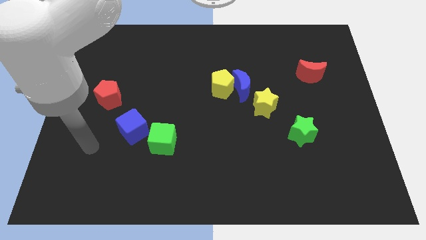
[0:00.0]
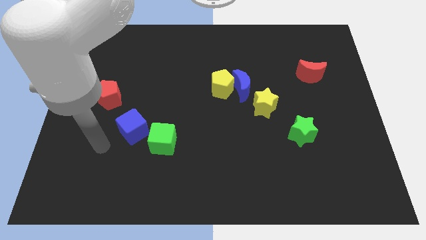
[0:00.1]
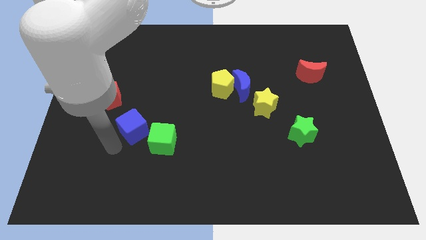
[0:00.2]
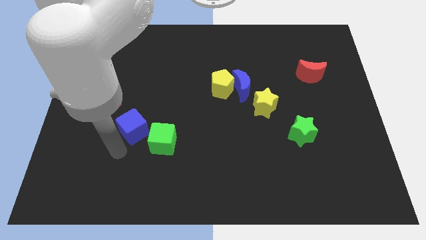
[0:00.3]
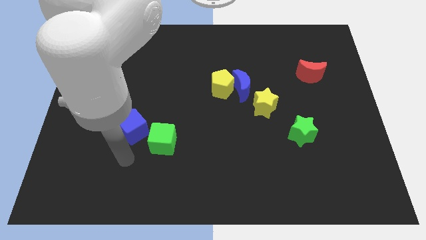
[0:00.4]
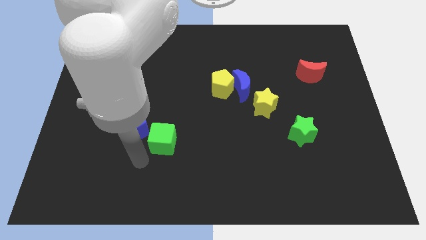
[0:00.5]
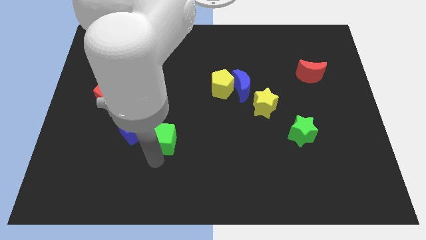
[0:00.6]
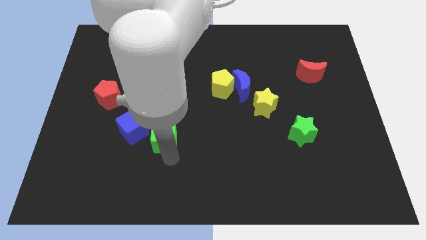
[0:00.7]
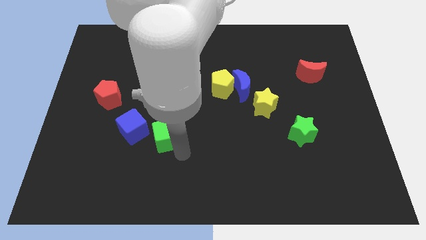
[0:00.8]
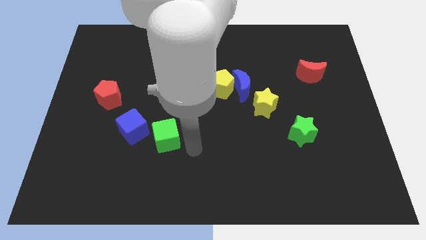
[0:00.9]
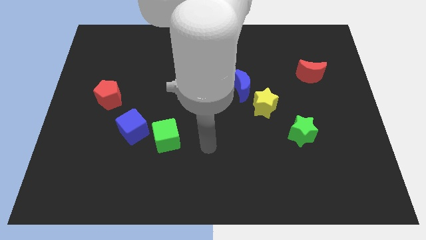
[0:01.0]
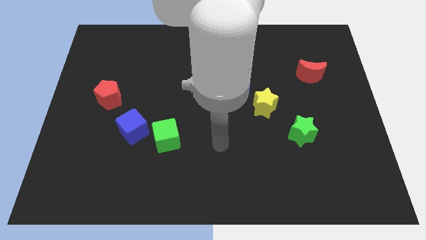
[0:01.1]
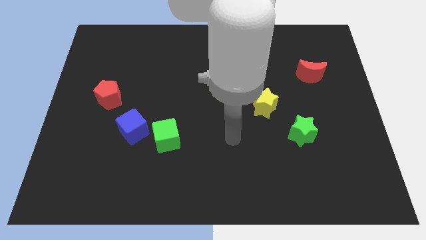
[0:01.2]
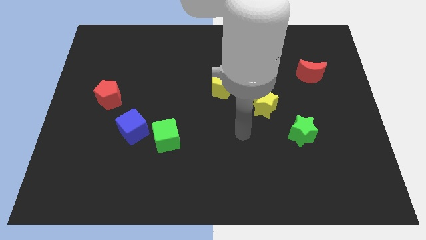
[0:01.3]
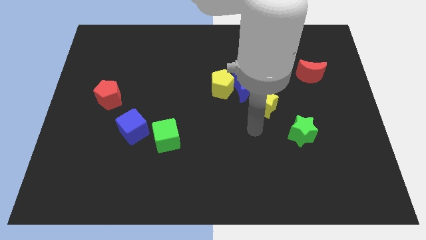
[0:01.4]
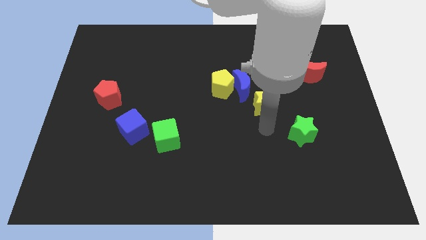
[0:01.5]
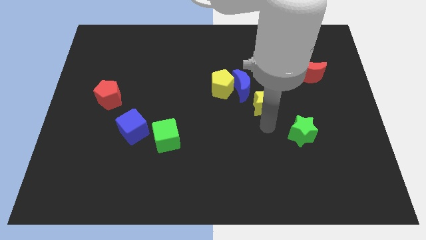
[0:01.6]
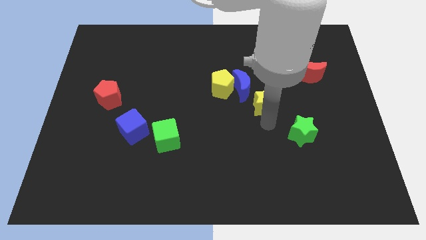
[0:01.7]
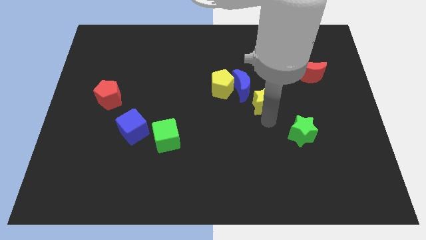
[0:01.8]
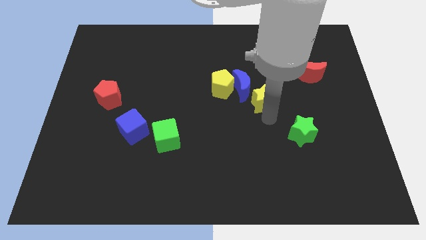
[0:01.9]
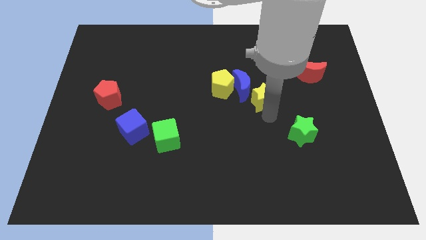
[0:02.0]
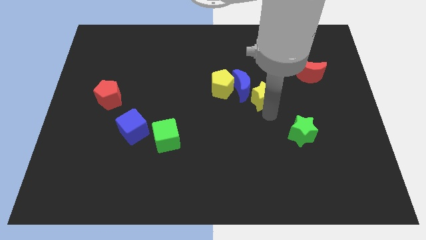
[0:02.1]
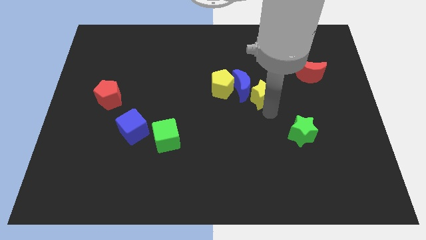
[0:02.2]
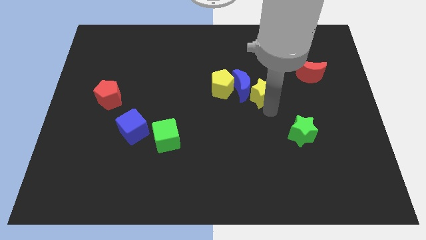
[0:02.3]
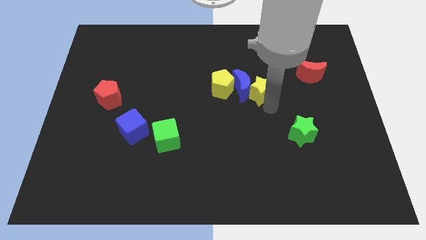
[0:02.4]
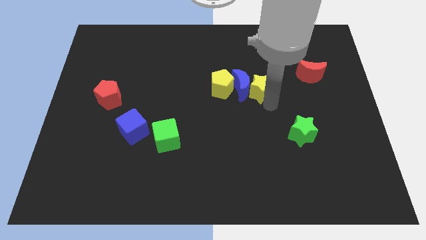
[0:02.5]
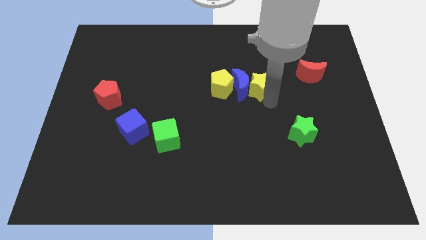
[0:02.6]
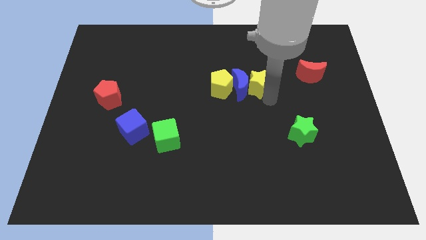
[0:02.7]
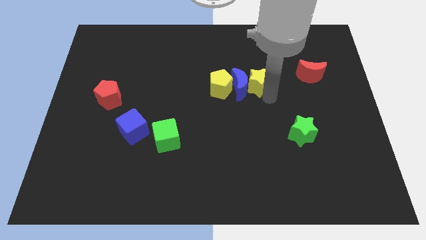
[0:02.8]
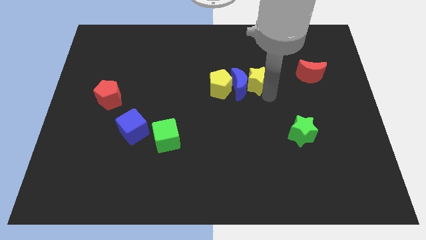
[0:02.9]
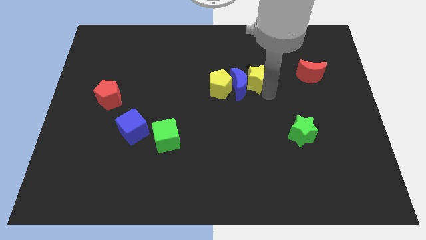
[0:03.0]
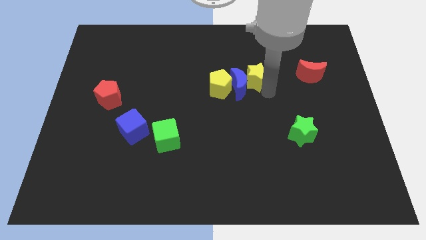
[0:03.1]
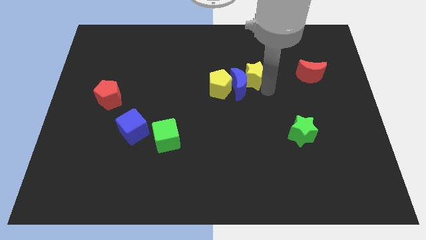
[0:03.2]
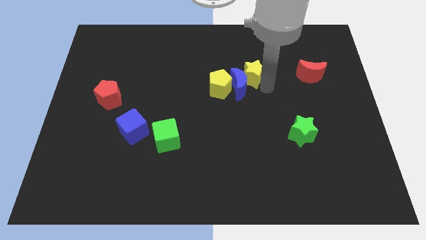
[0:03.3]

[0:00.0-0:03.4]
move the yellow star somewhat diagonally up and to the left

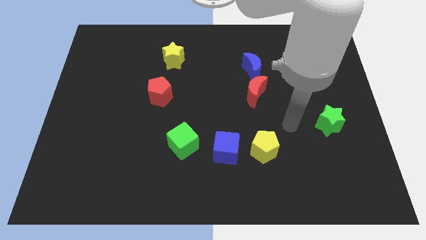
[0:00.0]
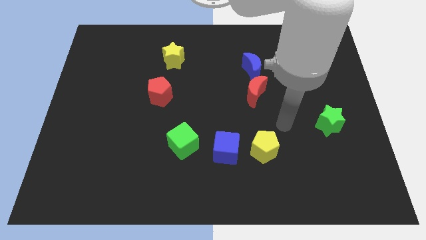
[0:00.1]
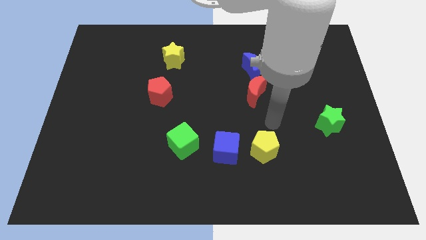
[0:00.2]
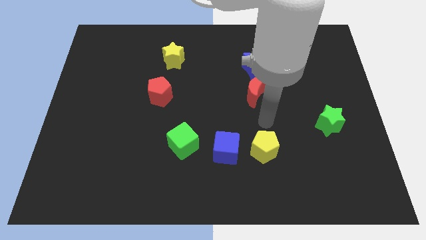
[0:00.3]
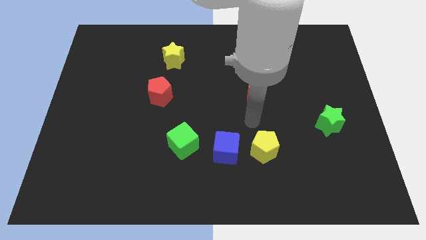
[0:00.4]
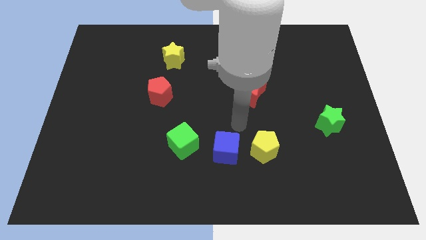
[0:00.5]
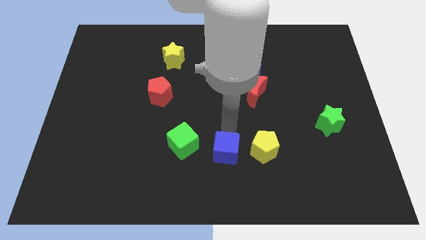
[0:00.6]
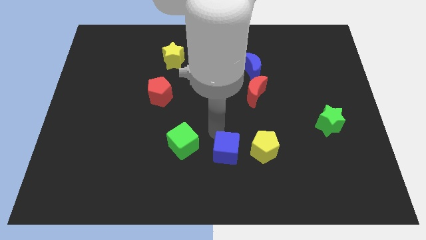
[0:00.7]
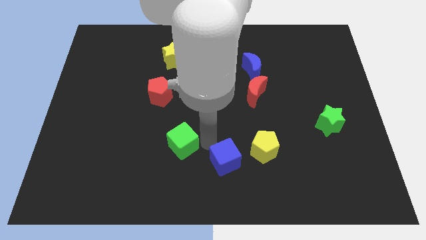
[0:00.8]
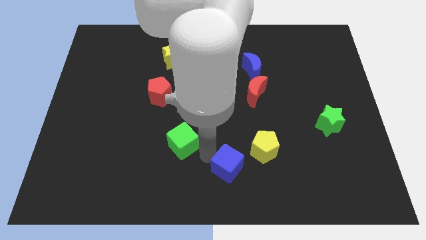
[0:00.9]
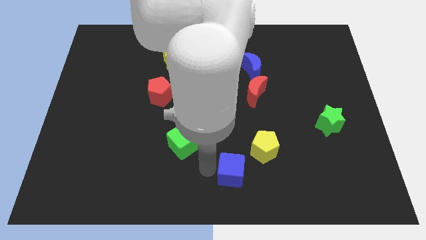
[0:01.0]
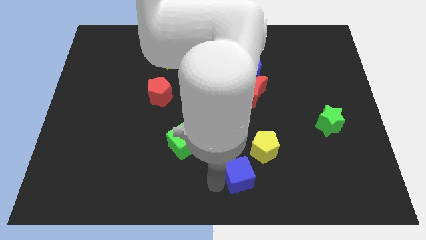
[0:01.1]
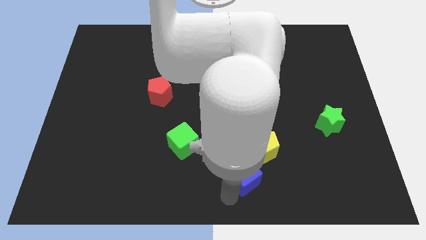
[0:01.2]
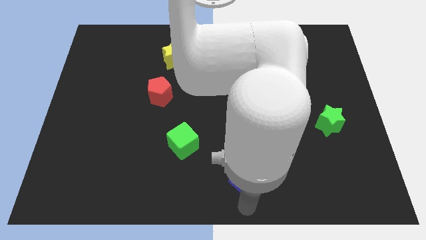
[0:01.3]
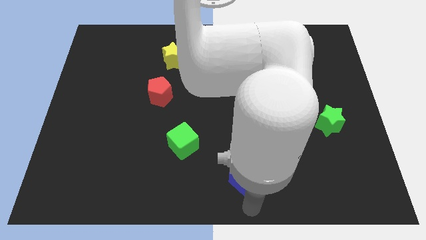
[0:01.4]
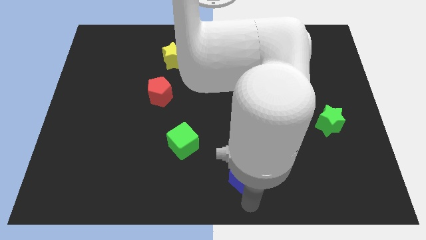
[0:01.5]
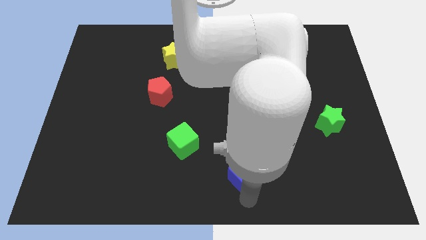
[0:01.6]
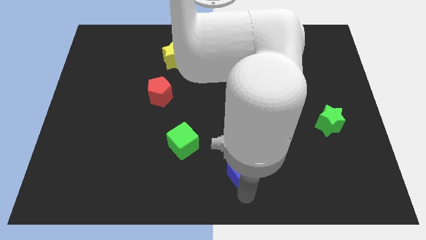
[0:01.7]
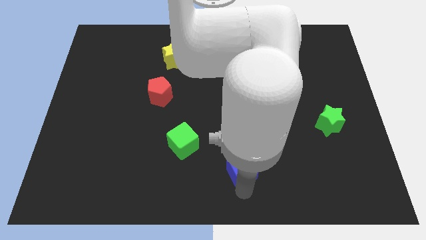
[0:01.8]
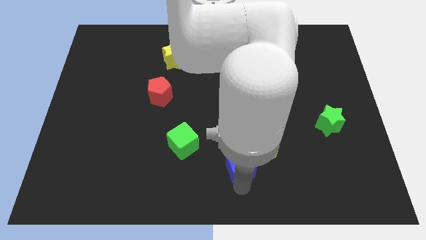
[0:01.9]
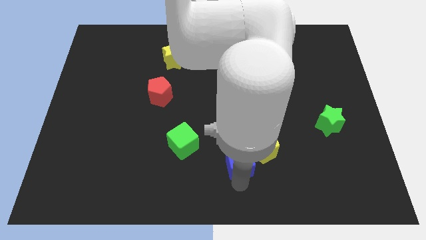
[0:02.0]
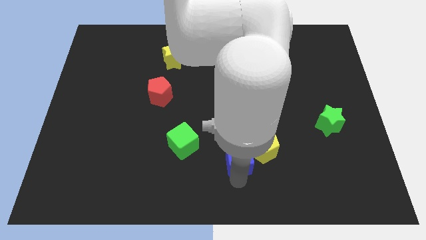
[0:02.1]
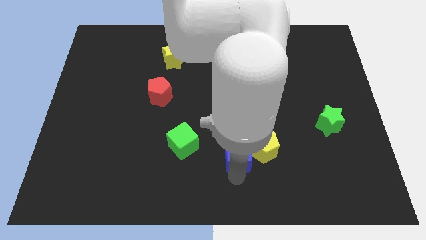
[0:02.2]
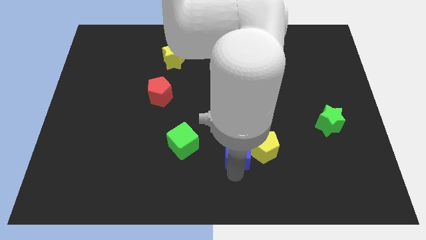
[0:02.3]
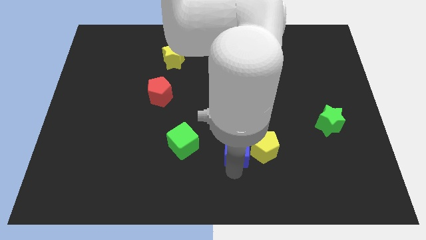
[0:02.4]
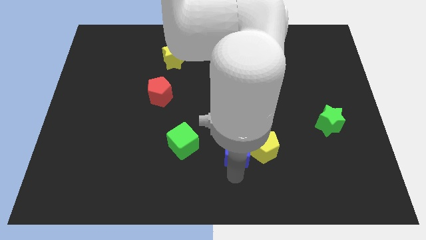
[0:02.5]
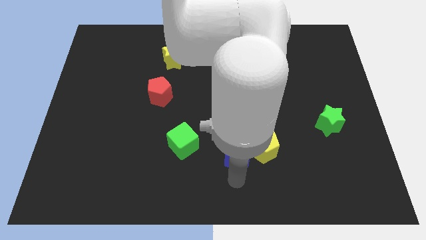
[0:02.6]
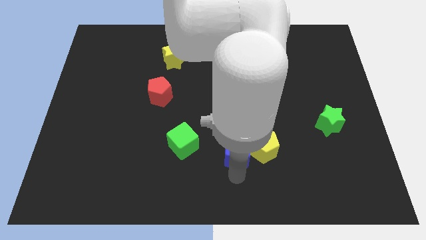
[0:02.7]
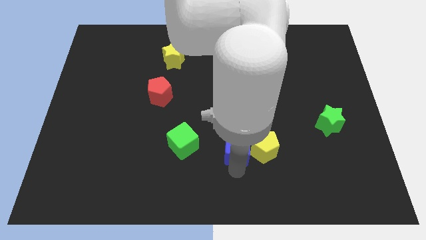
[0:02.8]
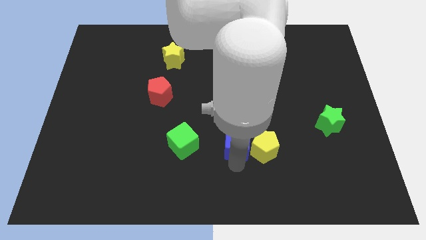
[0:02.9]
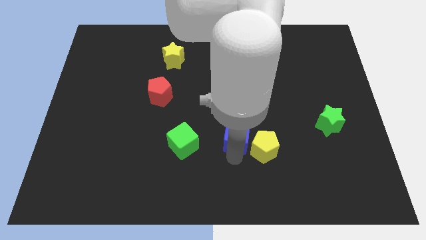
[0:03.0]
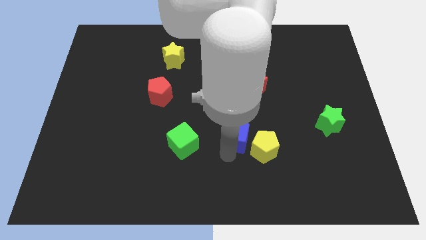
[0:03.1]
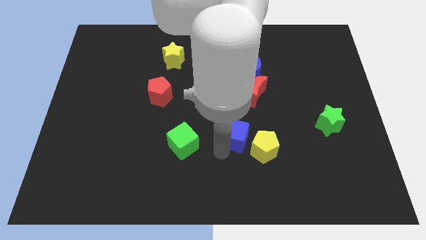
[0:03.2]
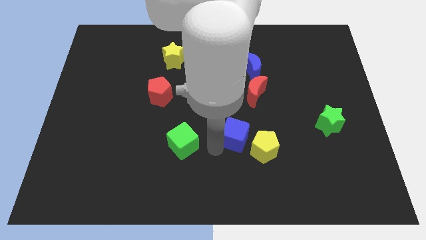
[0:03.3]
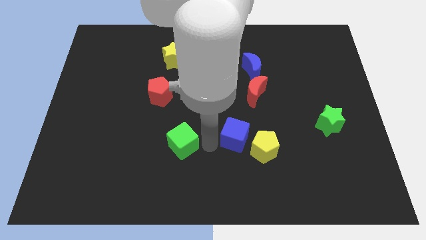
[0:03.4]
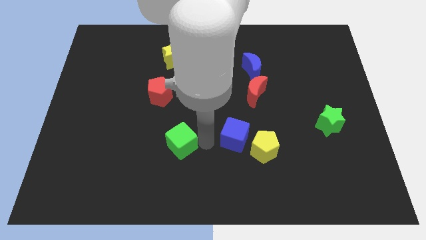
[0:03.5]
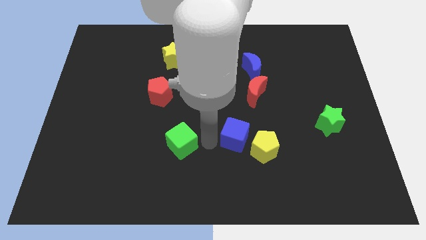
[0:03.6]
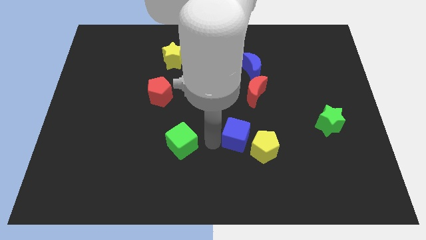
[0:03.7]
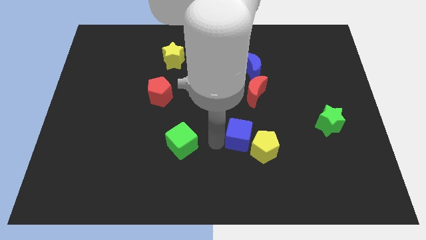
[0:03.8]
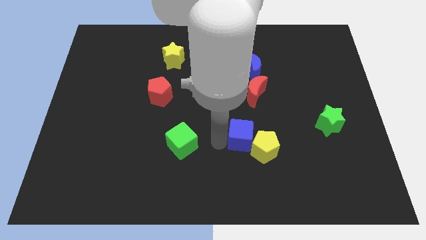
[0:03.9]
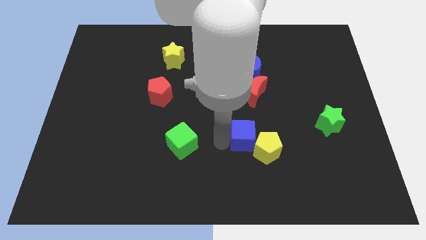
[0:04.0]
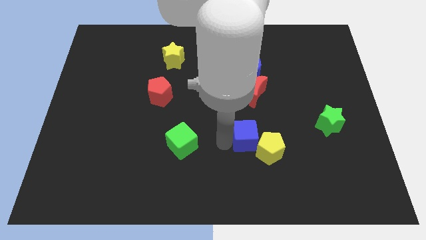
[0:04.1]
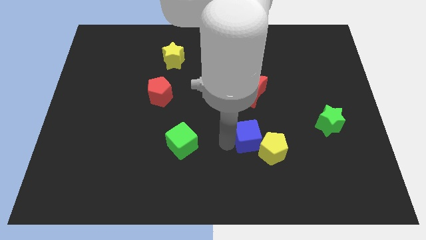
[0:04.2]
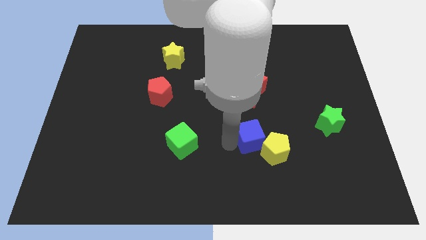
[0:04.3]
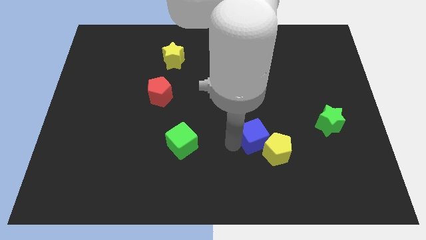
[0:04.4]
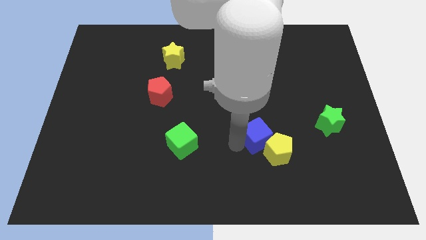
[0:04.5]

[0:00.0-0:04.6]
slightly push the blue cube up and to the right diagonally
